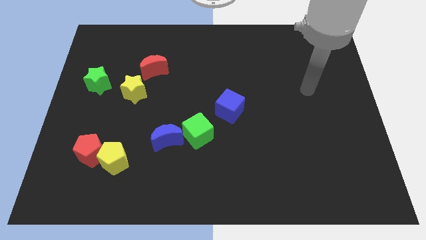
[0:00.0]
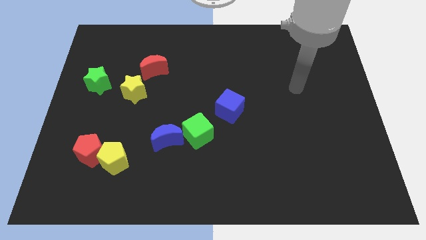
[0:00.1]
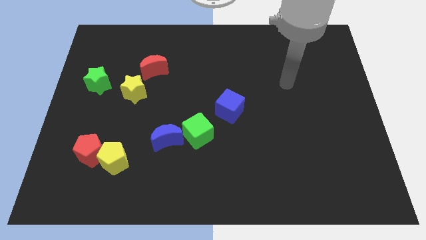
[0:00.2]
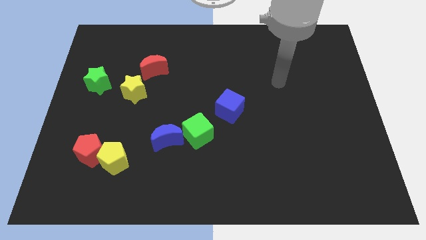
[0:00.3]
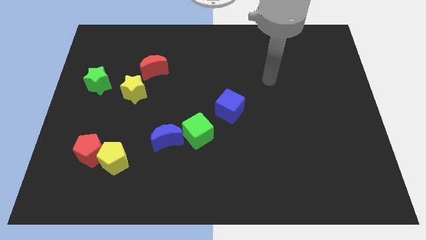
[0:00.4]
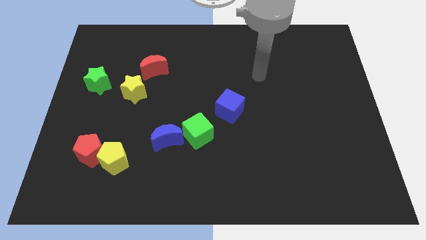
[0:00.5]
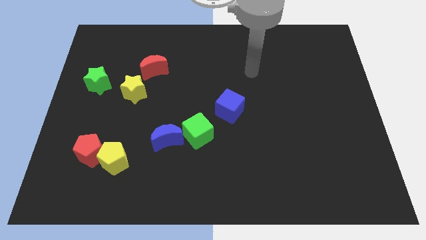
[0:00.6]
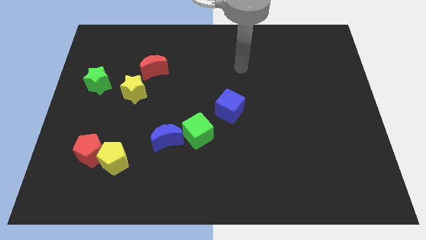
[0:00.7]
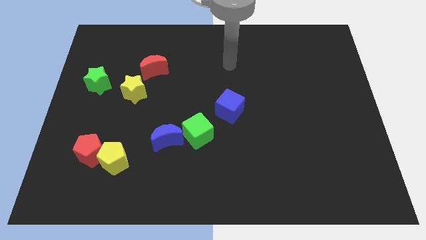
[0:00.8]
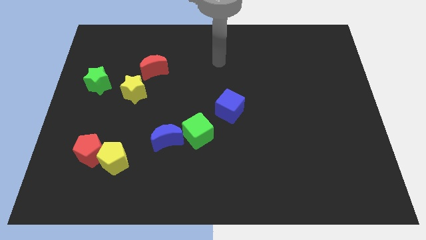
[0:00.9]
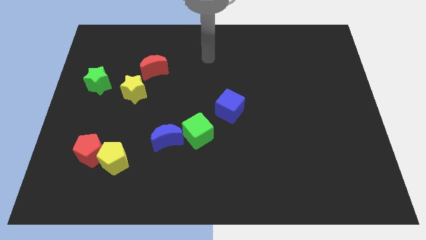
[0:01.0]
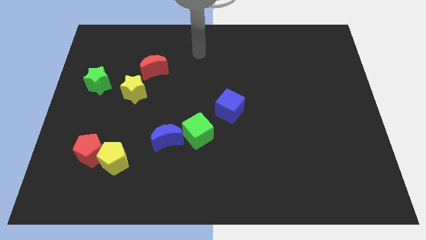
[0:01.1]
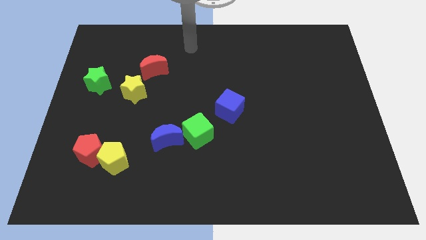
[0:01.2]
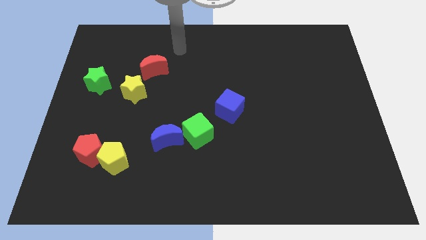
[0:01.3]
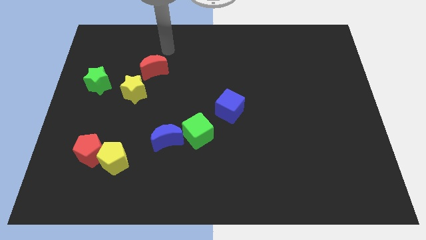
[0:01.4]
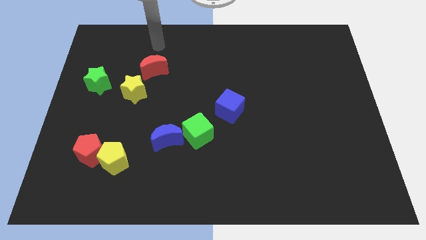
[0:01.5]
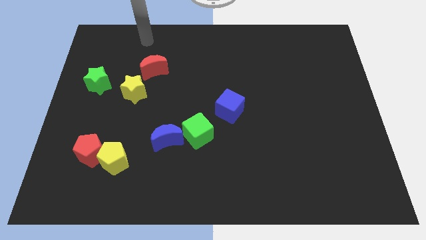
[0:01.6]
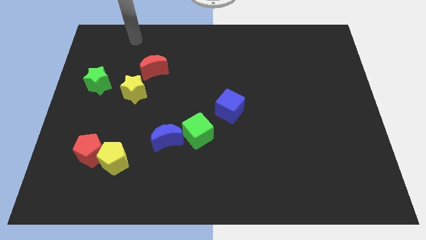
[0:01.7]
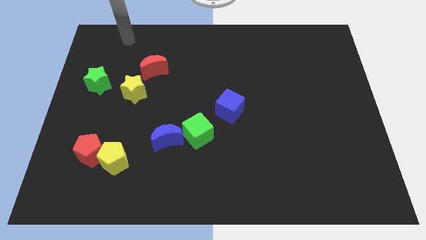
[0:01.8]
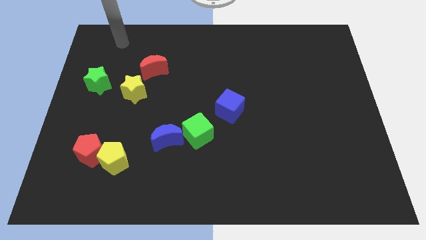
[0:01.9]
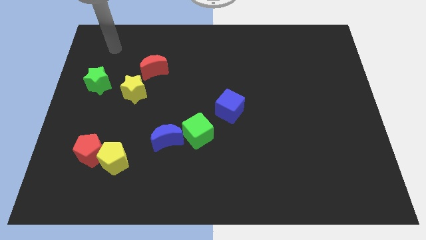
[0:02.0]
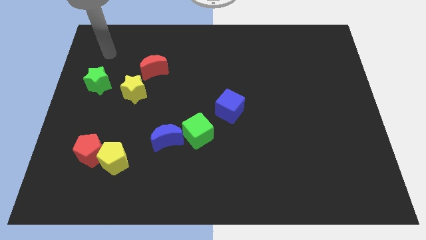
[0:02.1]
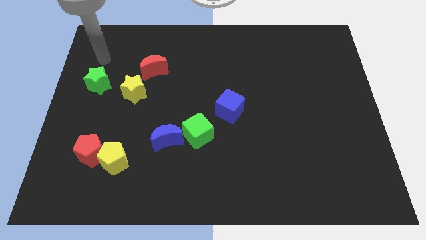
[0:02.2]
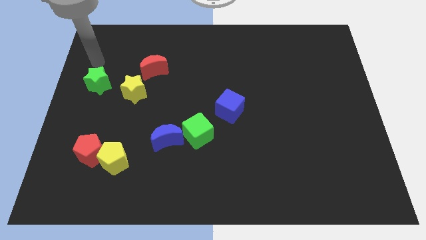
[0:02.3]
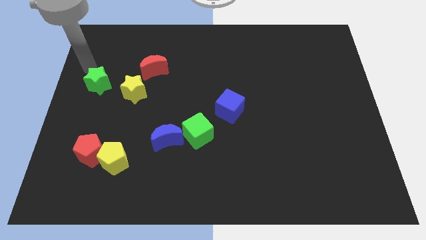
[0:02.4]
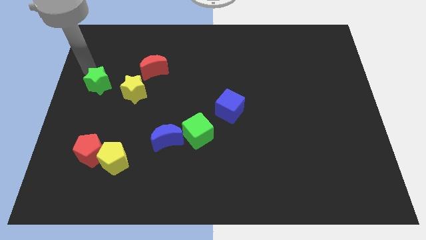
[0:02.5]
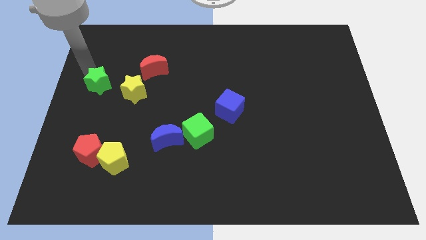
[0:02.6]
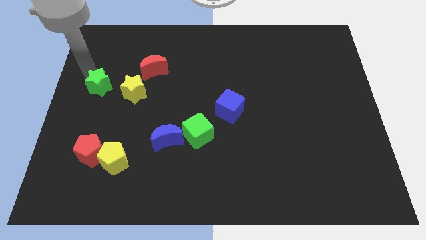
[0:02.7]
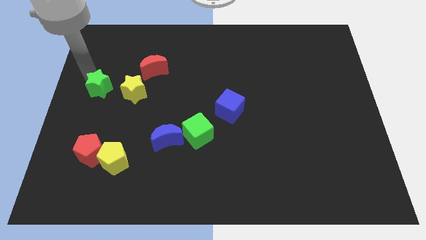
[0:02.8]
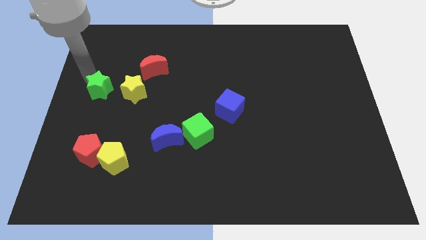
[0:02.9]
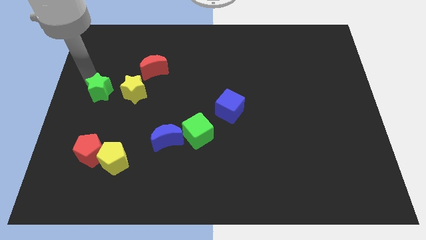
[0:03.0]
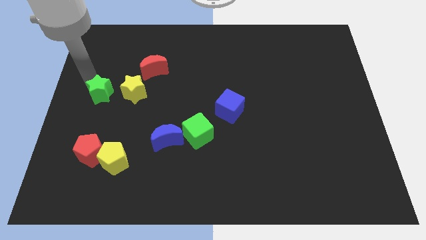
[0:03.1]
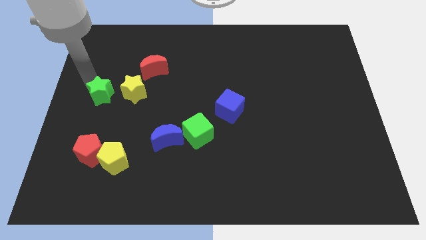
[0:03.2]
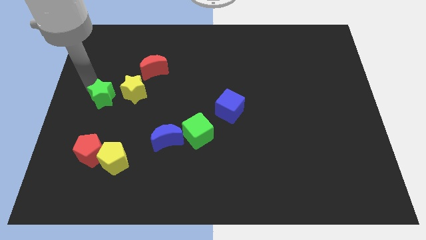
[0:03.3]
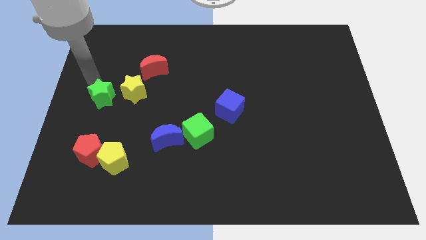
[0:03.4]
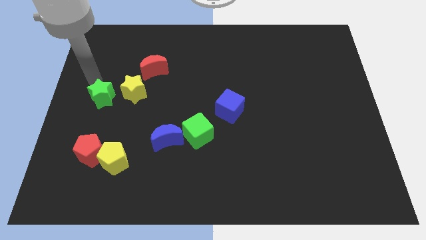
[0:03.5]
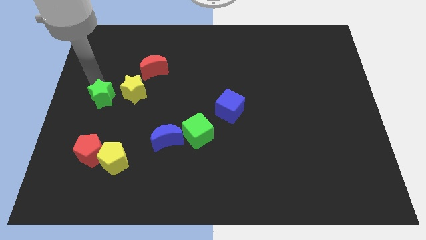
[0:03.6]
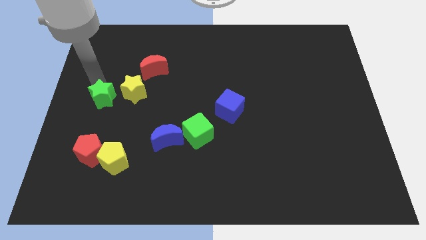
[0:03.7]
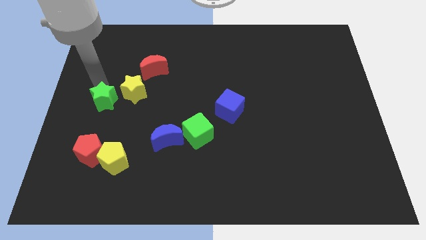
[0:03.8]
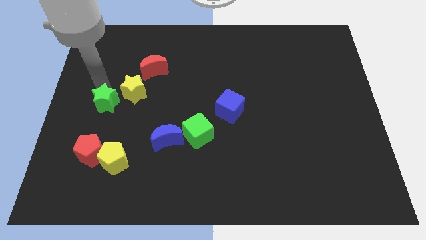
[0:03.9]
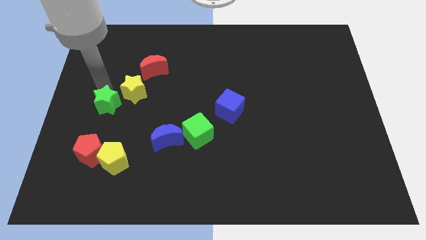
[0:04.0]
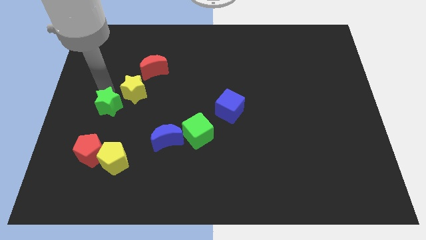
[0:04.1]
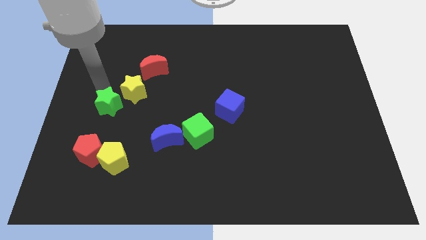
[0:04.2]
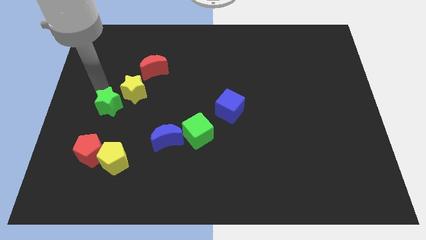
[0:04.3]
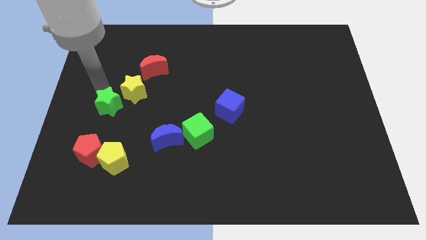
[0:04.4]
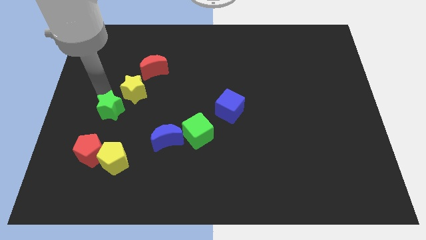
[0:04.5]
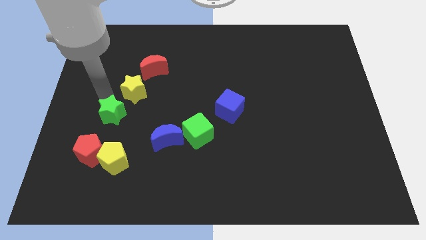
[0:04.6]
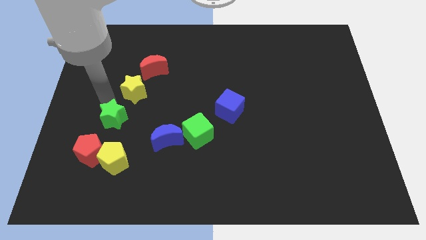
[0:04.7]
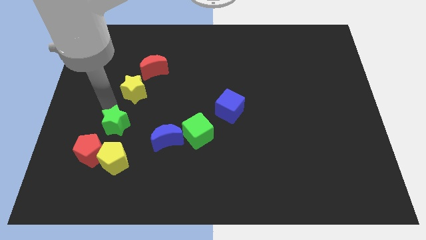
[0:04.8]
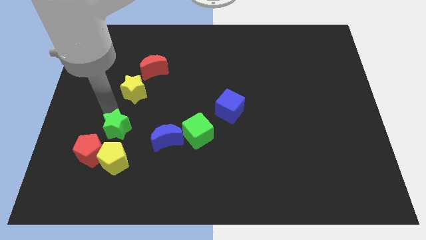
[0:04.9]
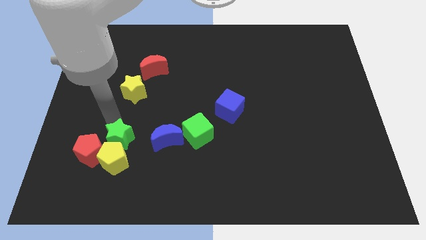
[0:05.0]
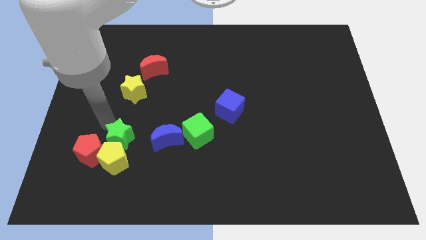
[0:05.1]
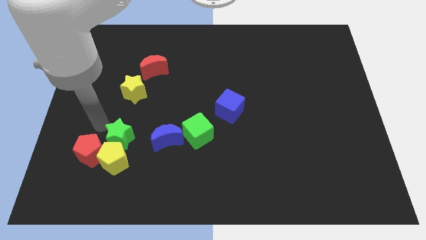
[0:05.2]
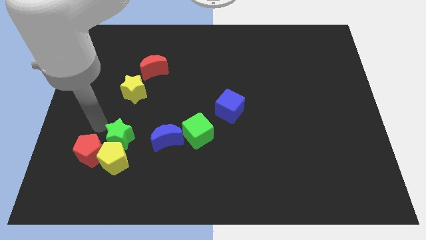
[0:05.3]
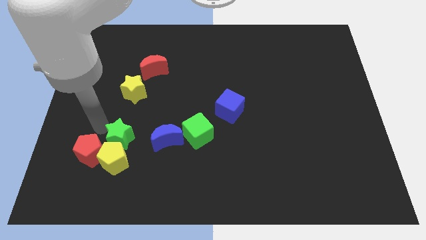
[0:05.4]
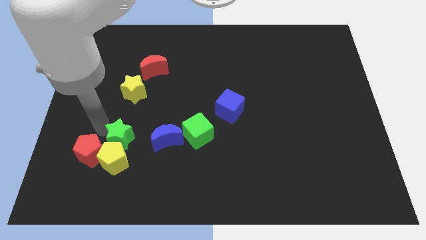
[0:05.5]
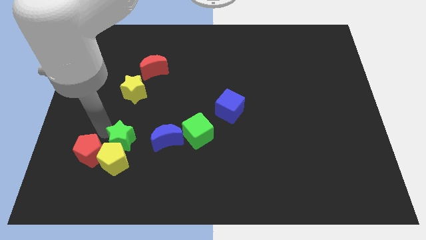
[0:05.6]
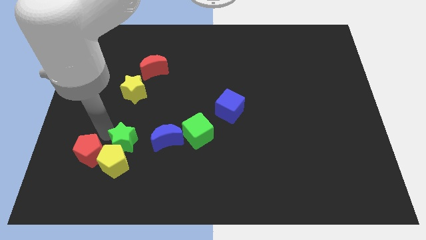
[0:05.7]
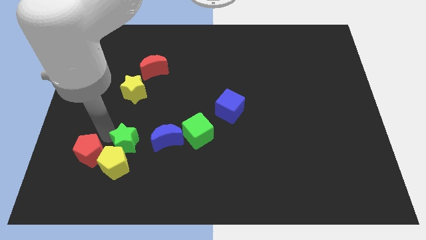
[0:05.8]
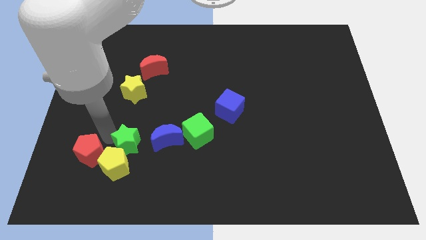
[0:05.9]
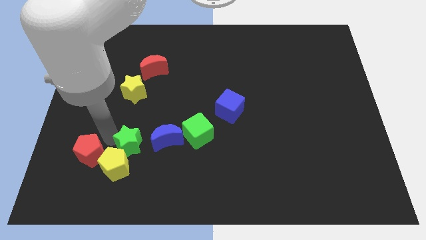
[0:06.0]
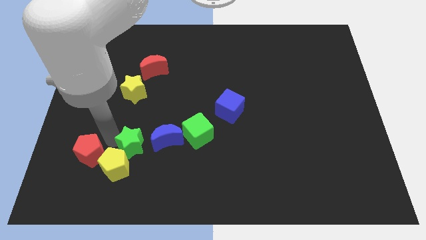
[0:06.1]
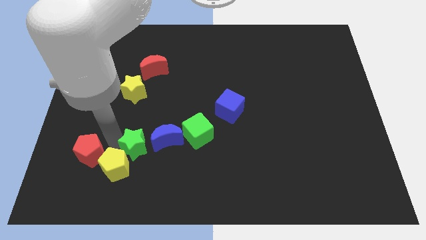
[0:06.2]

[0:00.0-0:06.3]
move the green star down and to the right diagonally

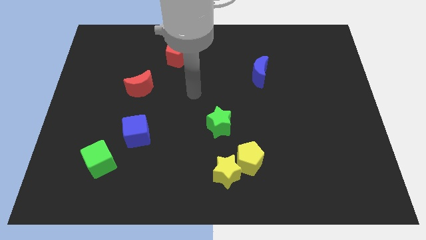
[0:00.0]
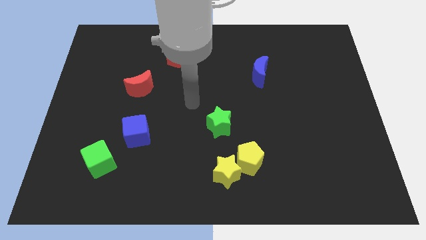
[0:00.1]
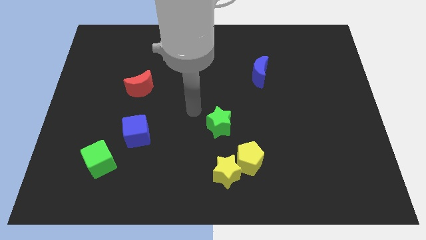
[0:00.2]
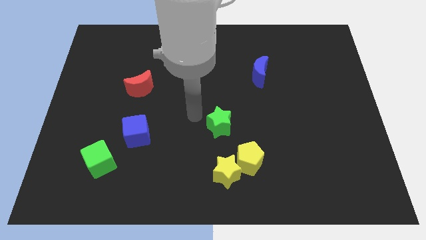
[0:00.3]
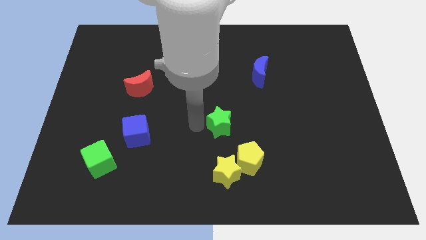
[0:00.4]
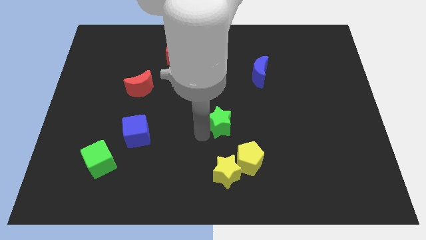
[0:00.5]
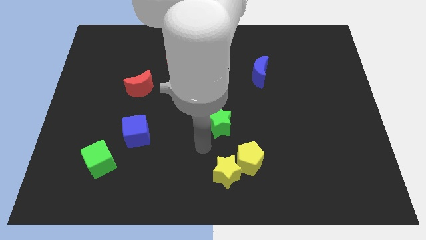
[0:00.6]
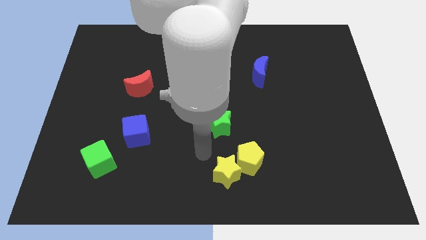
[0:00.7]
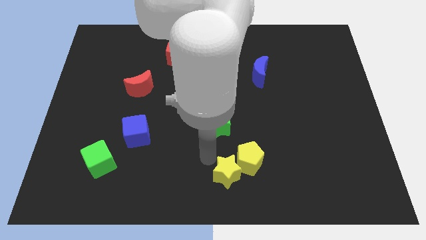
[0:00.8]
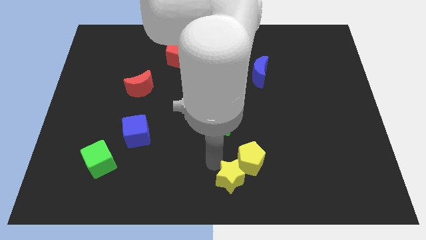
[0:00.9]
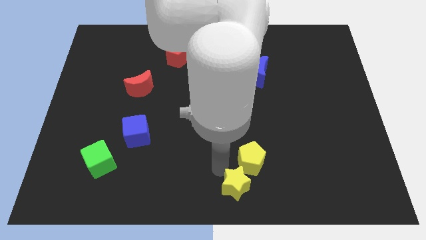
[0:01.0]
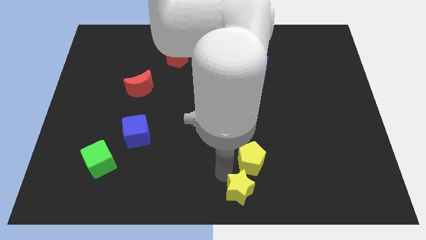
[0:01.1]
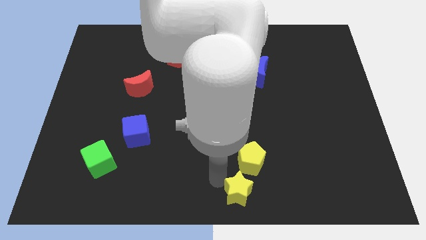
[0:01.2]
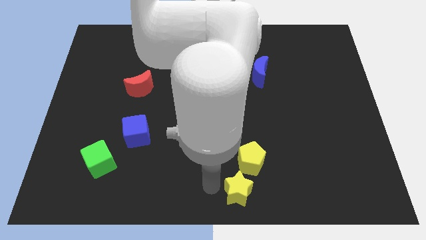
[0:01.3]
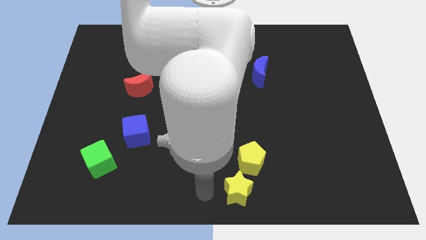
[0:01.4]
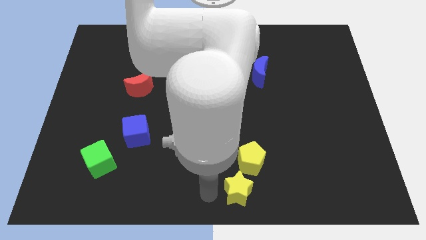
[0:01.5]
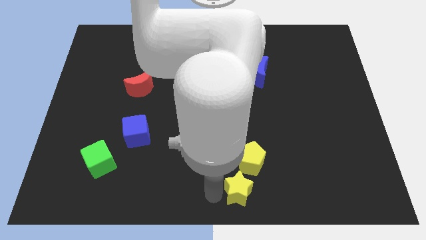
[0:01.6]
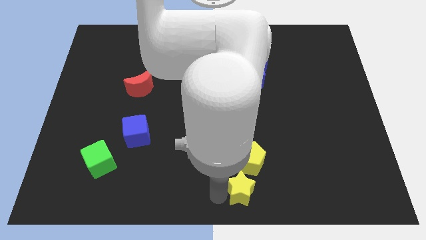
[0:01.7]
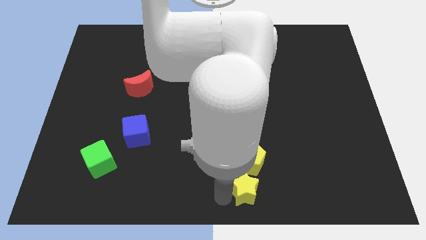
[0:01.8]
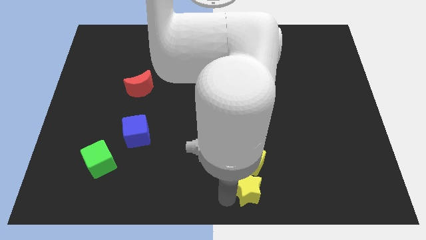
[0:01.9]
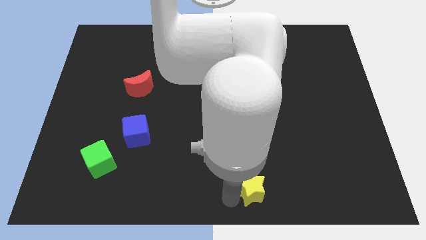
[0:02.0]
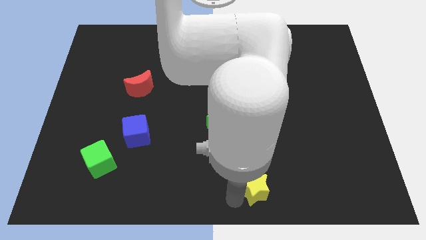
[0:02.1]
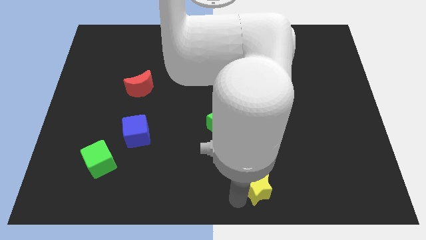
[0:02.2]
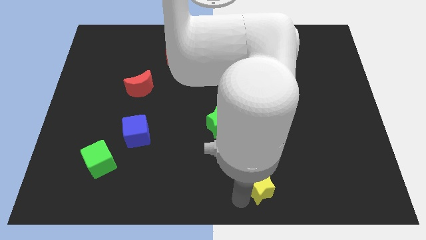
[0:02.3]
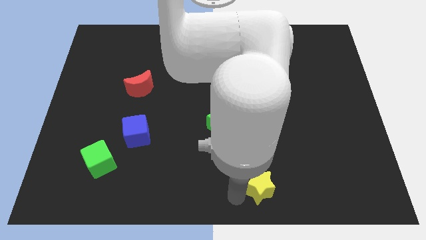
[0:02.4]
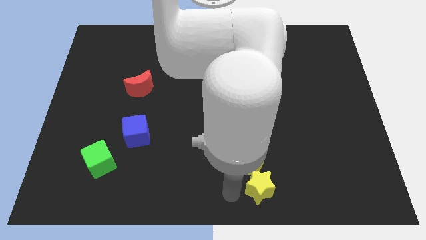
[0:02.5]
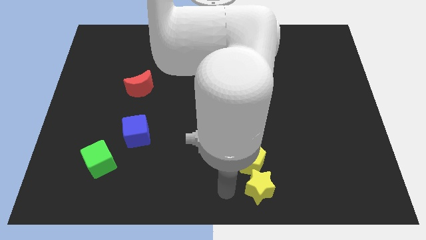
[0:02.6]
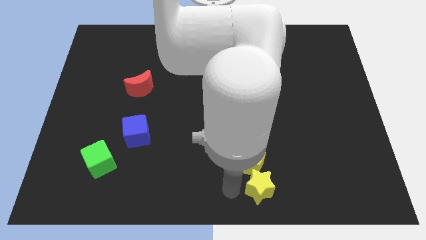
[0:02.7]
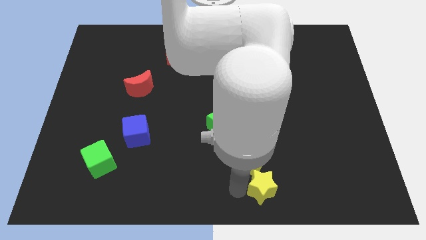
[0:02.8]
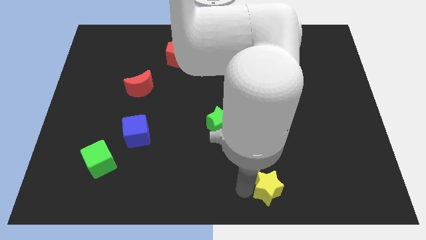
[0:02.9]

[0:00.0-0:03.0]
slightly push the yellow star right
